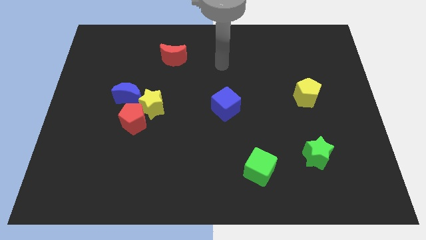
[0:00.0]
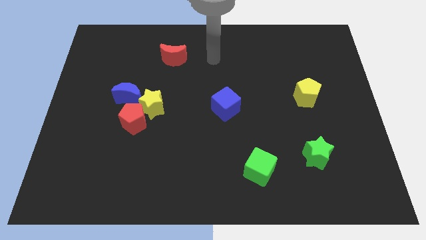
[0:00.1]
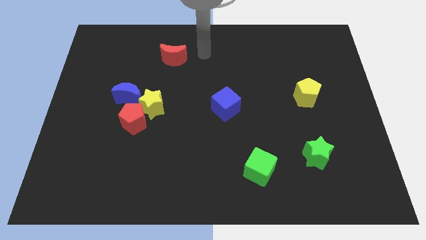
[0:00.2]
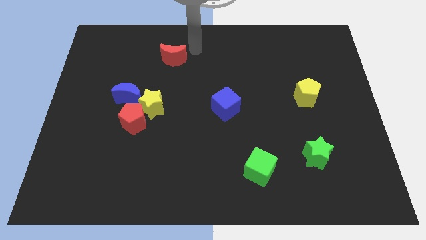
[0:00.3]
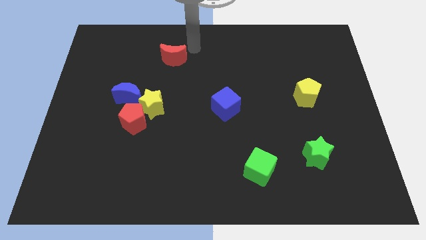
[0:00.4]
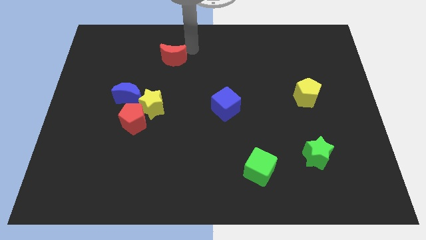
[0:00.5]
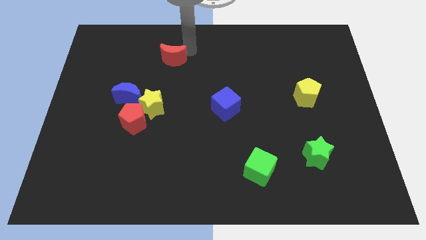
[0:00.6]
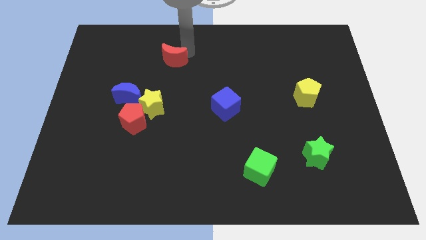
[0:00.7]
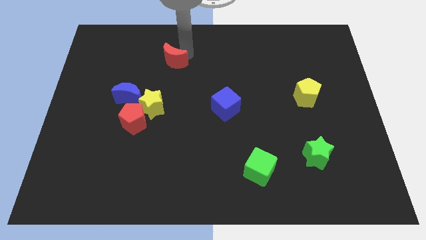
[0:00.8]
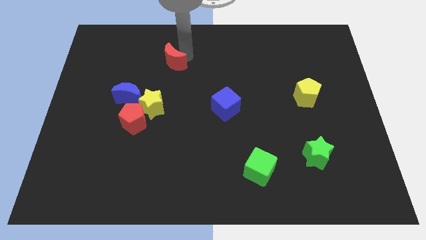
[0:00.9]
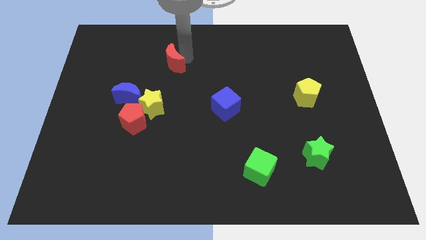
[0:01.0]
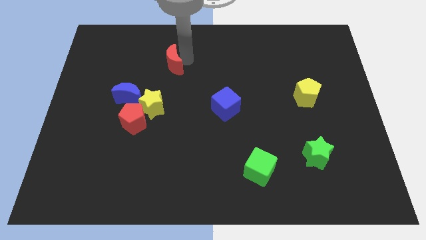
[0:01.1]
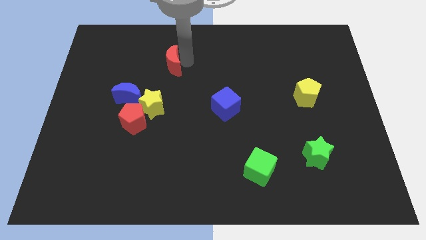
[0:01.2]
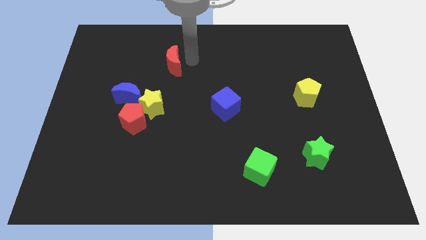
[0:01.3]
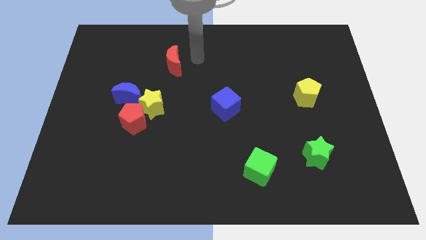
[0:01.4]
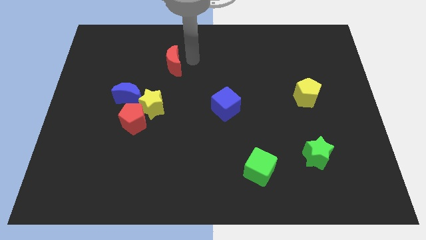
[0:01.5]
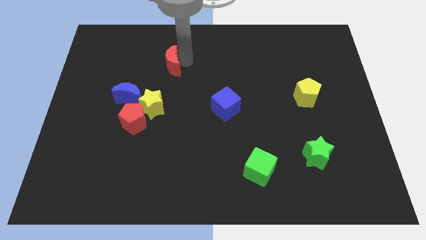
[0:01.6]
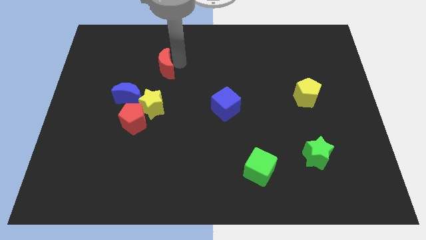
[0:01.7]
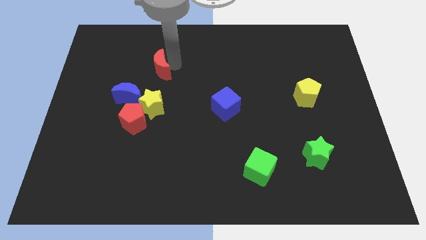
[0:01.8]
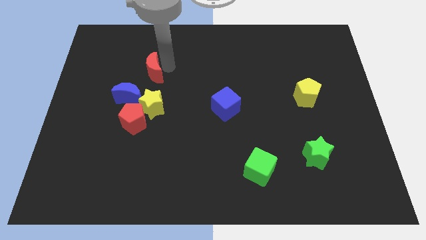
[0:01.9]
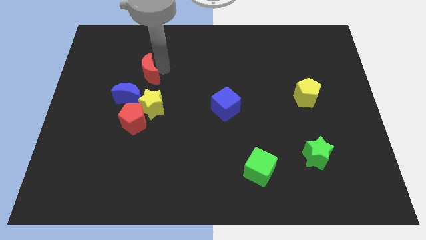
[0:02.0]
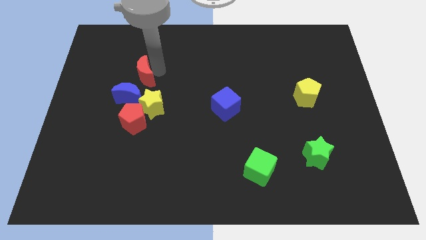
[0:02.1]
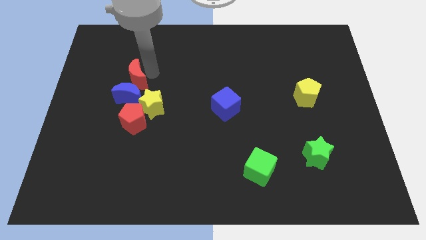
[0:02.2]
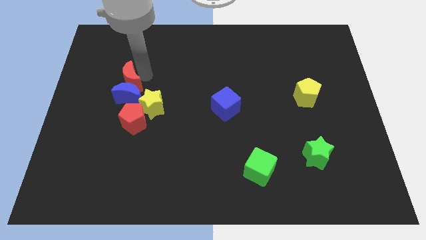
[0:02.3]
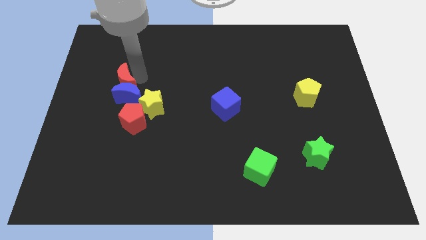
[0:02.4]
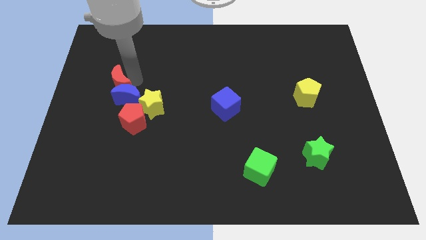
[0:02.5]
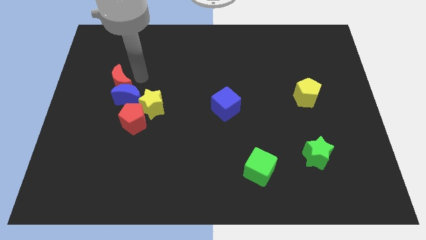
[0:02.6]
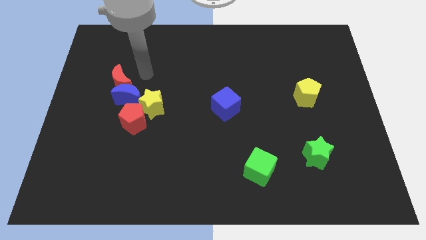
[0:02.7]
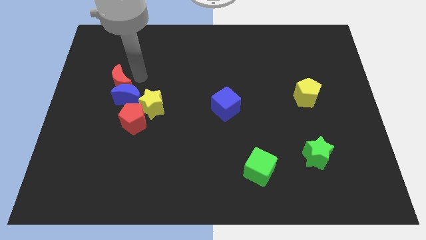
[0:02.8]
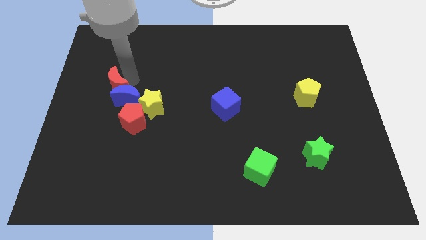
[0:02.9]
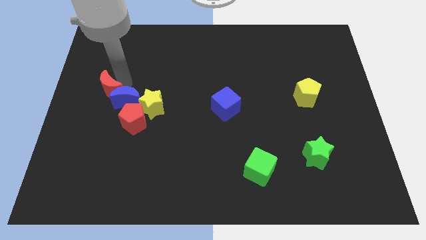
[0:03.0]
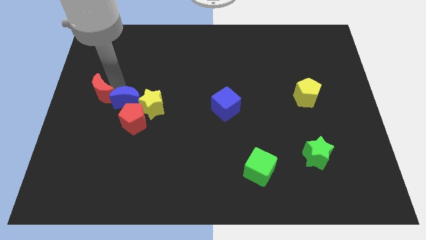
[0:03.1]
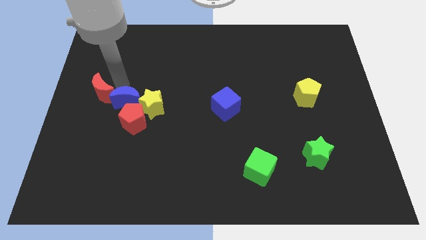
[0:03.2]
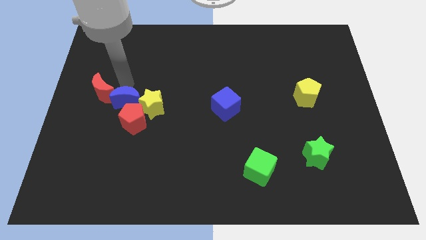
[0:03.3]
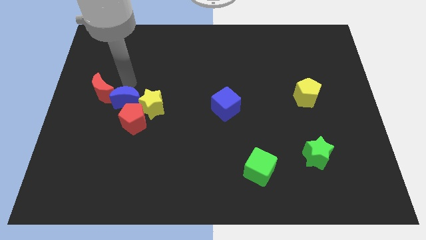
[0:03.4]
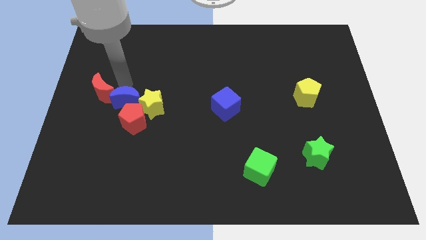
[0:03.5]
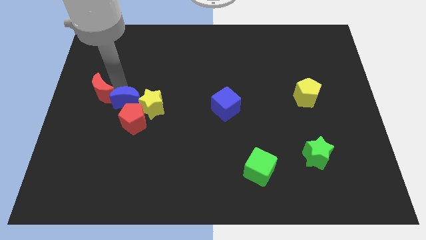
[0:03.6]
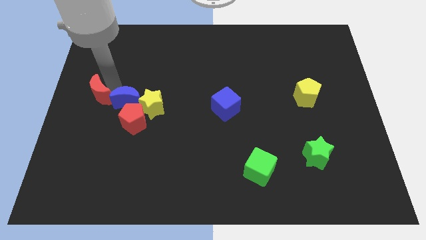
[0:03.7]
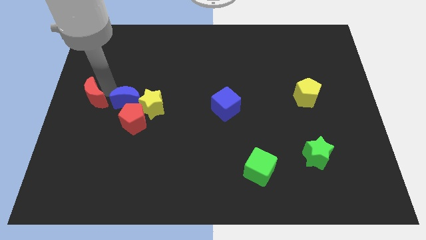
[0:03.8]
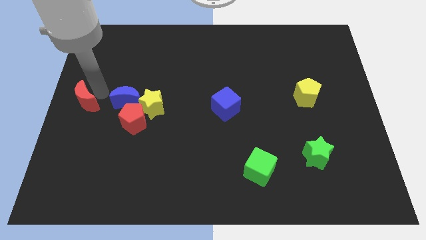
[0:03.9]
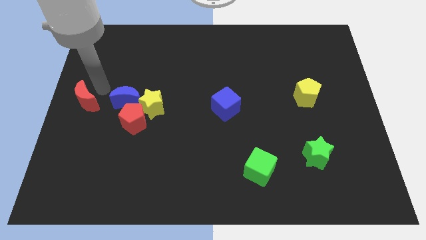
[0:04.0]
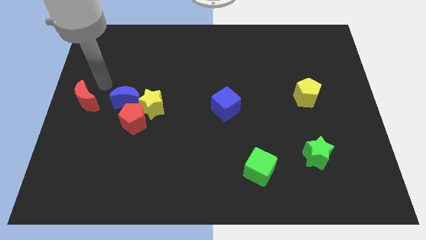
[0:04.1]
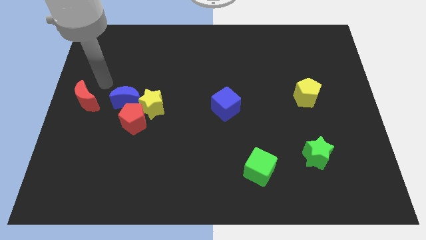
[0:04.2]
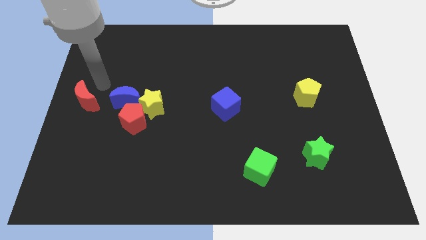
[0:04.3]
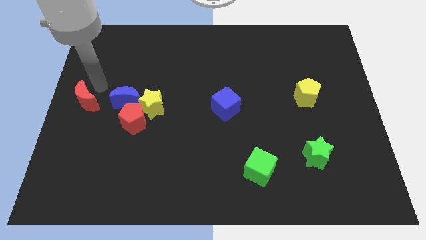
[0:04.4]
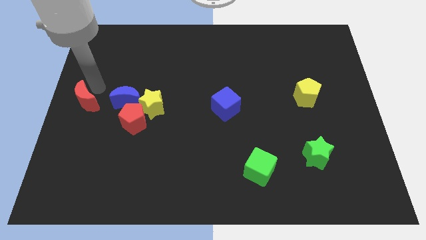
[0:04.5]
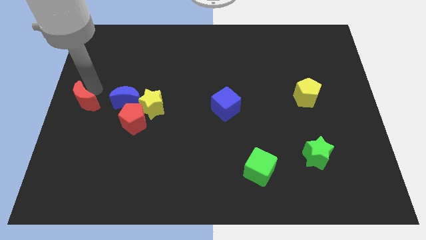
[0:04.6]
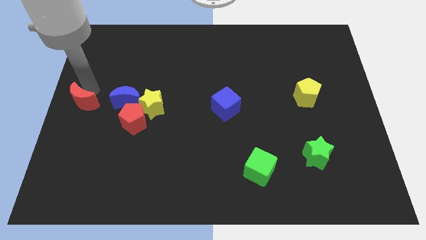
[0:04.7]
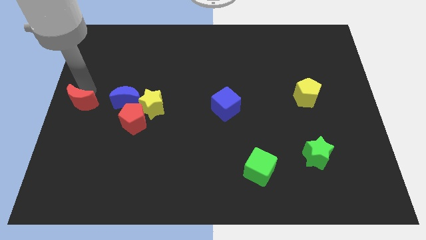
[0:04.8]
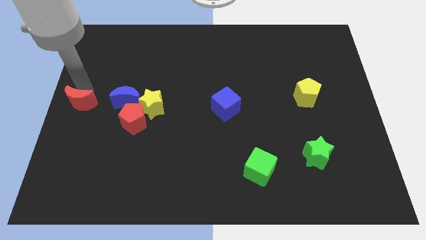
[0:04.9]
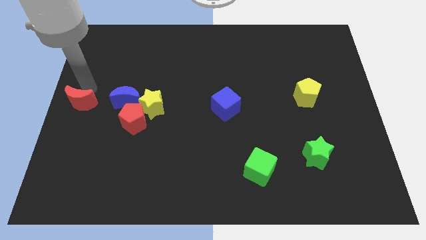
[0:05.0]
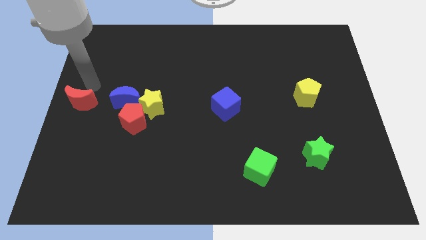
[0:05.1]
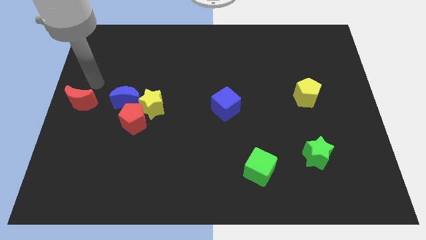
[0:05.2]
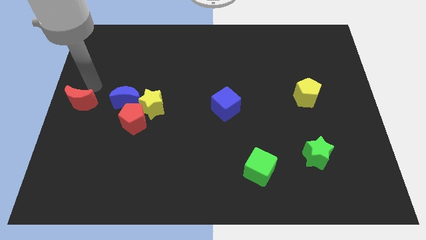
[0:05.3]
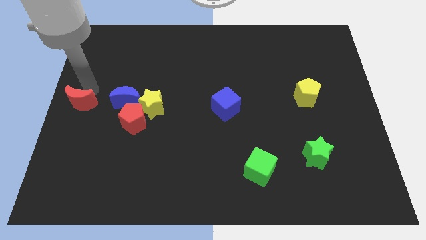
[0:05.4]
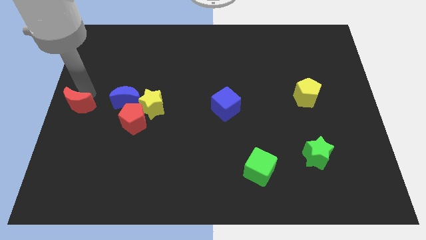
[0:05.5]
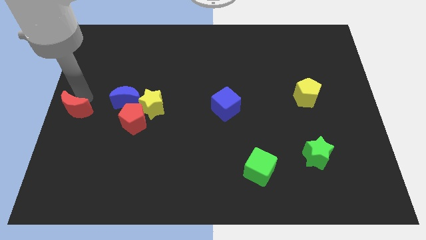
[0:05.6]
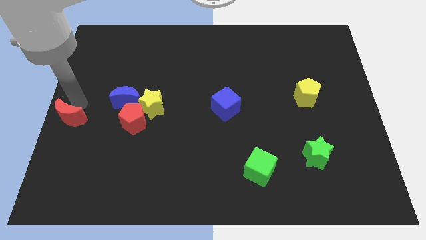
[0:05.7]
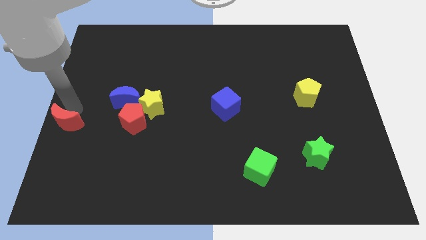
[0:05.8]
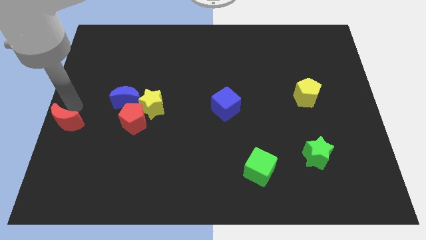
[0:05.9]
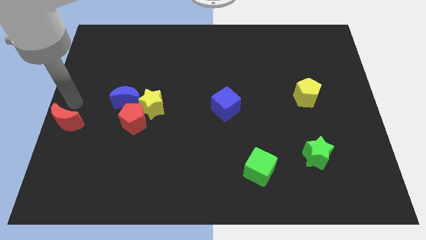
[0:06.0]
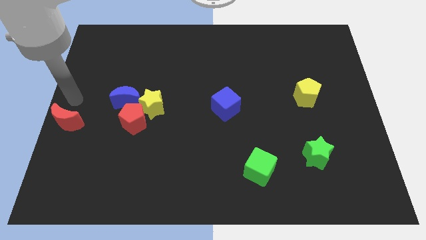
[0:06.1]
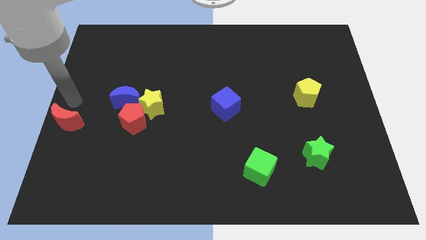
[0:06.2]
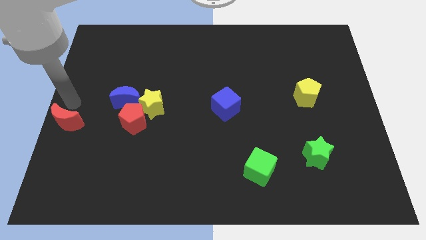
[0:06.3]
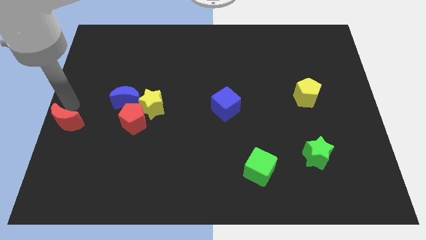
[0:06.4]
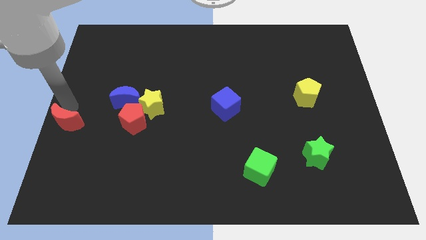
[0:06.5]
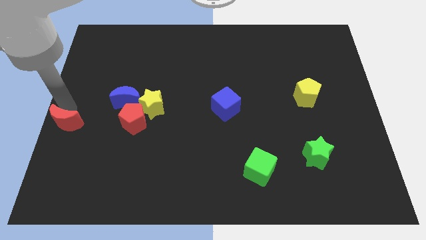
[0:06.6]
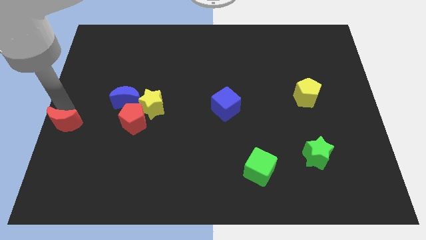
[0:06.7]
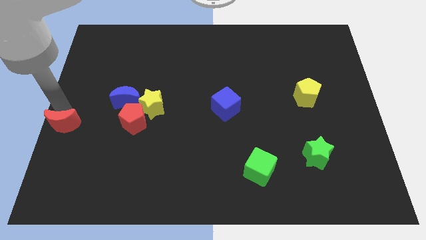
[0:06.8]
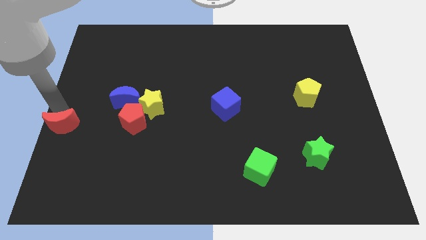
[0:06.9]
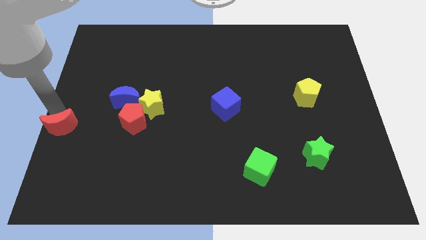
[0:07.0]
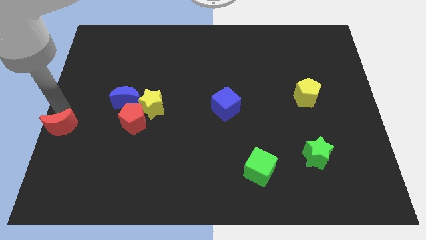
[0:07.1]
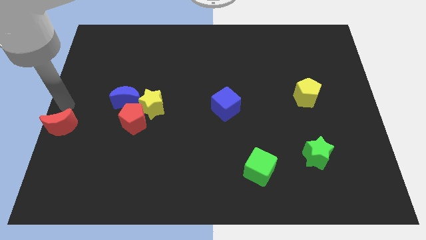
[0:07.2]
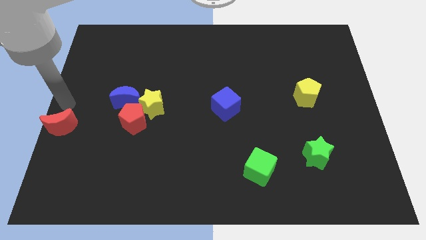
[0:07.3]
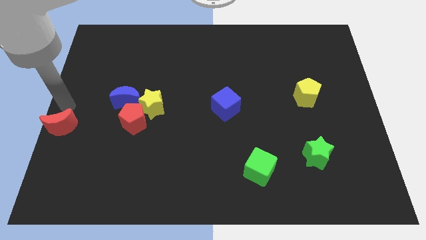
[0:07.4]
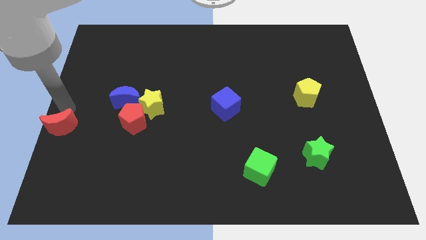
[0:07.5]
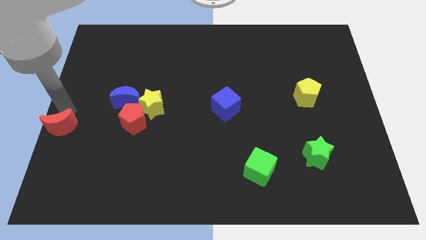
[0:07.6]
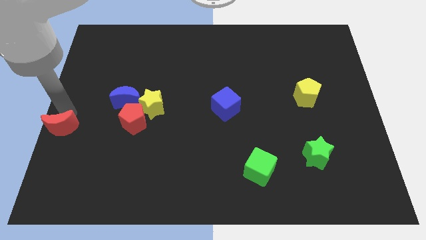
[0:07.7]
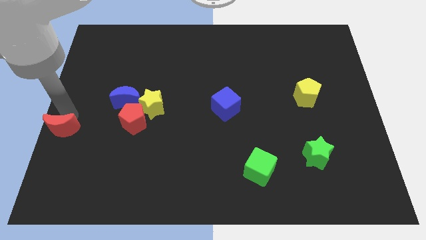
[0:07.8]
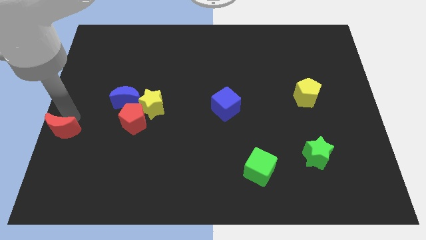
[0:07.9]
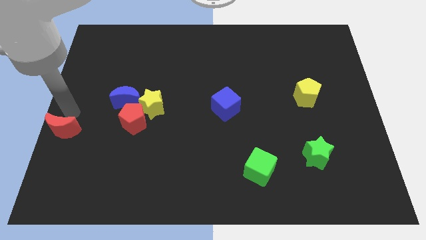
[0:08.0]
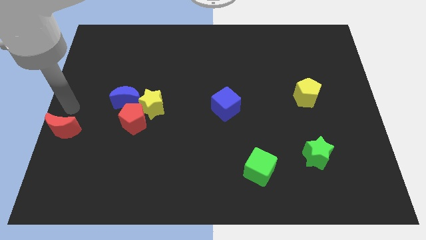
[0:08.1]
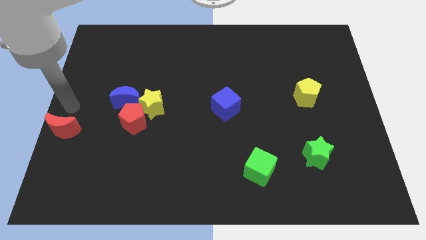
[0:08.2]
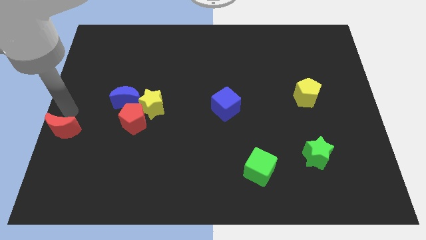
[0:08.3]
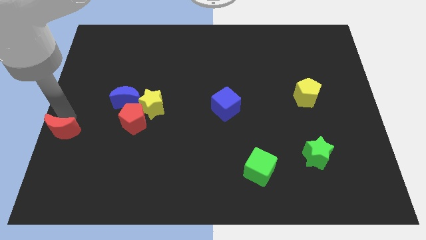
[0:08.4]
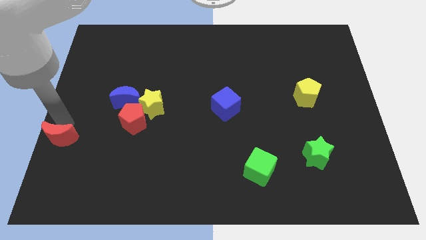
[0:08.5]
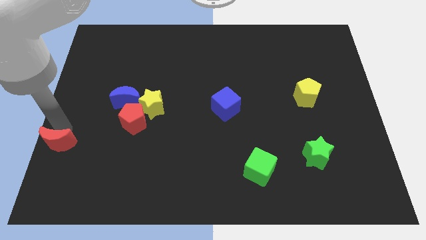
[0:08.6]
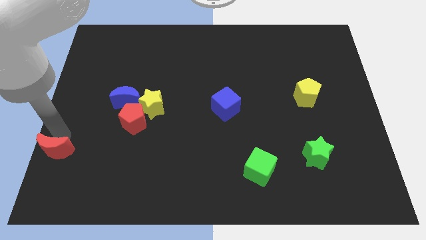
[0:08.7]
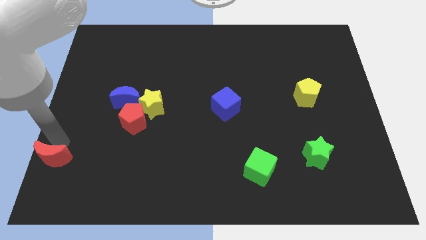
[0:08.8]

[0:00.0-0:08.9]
put the red moon to the bottom left
